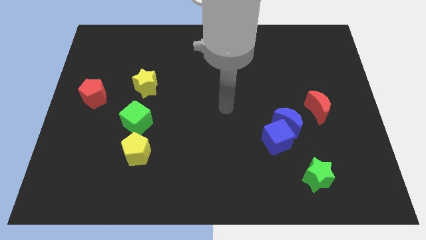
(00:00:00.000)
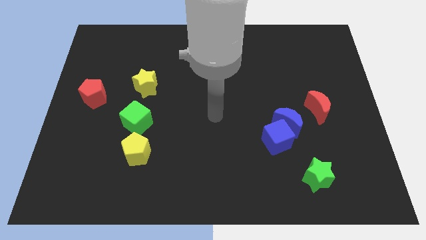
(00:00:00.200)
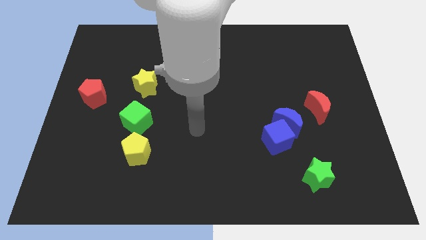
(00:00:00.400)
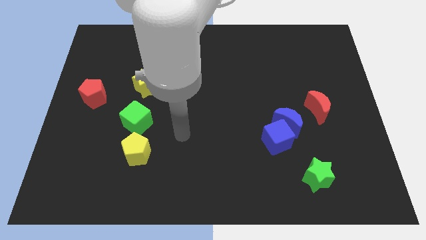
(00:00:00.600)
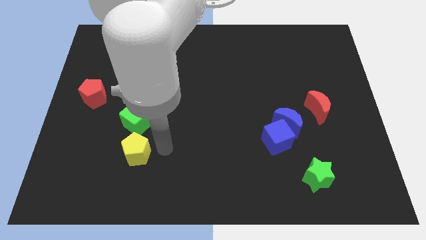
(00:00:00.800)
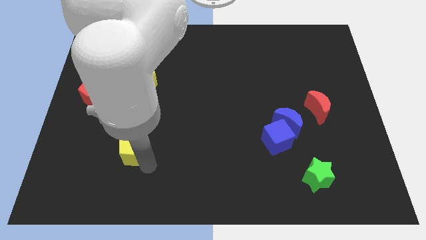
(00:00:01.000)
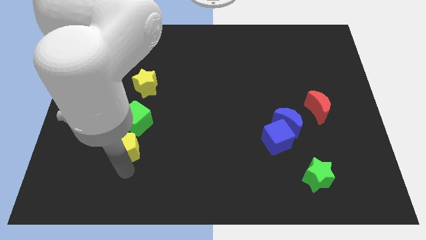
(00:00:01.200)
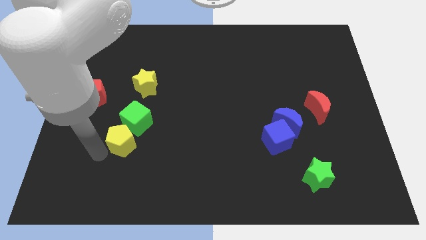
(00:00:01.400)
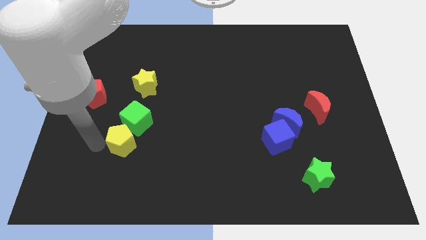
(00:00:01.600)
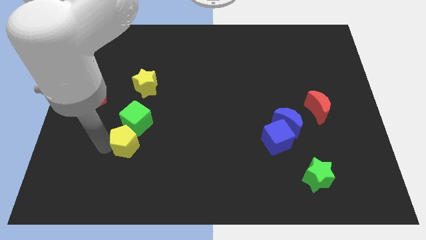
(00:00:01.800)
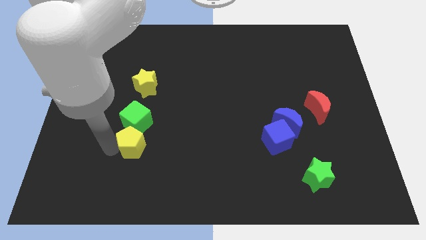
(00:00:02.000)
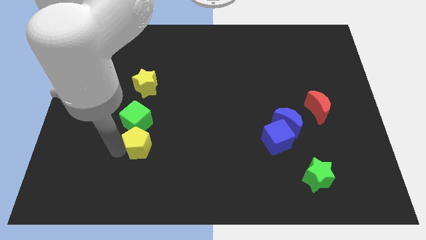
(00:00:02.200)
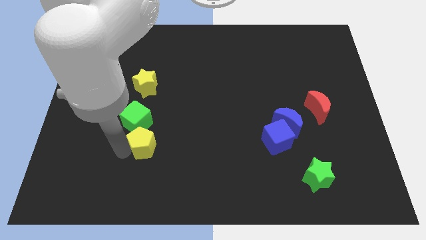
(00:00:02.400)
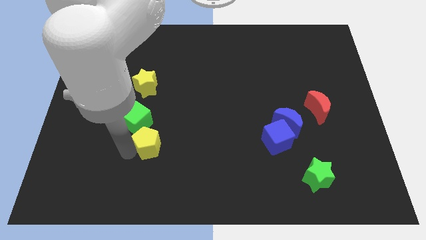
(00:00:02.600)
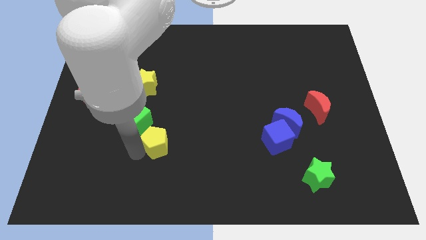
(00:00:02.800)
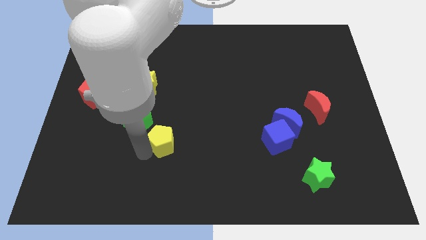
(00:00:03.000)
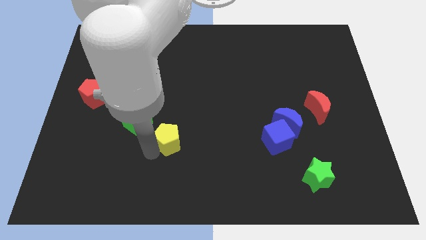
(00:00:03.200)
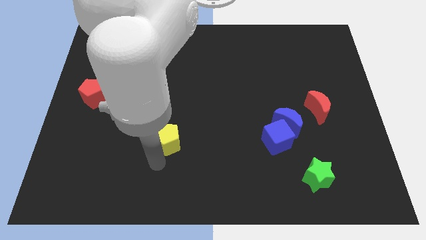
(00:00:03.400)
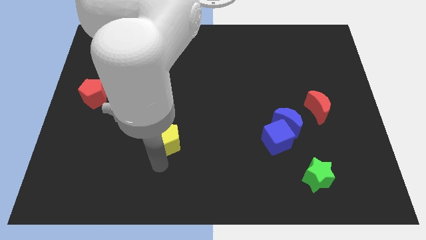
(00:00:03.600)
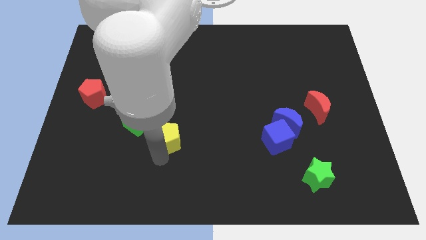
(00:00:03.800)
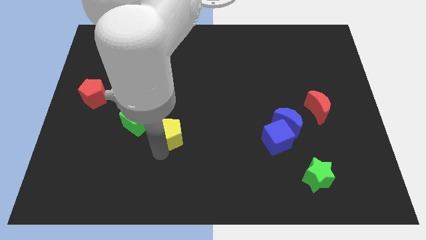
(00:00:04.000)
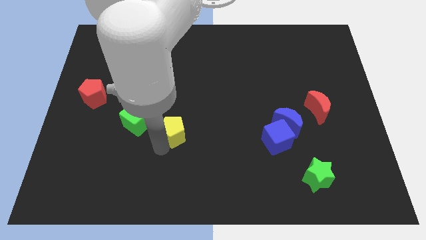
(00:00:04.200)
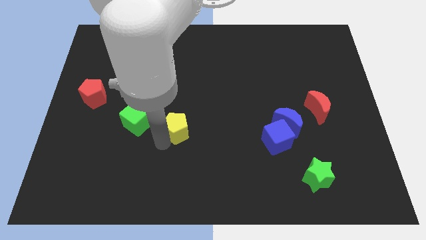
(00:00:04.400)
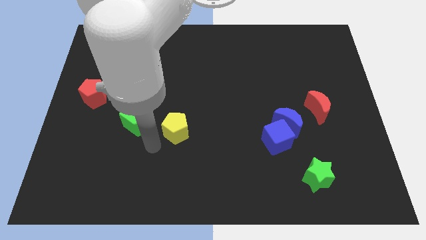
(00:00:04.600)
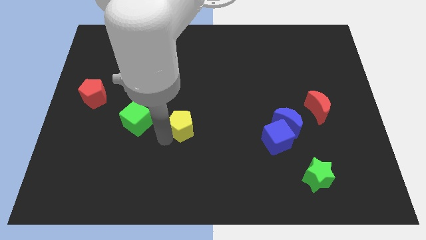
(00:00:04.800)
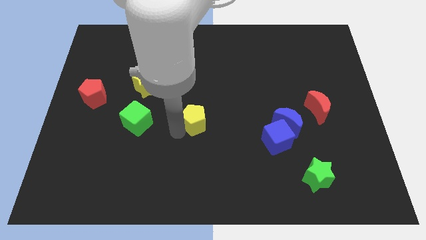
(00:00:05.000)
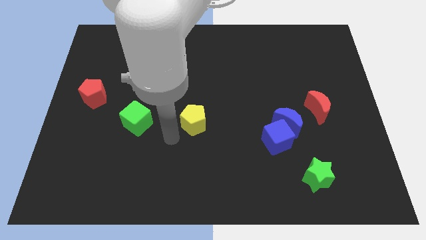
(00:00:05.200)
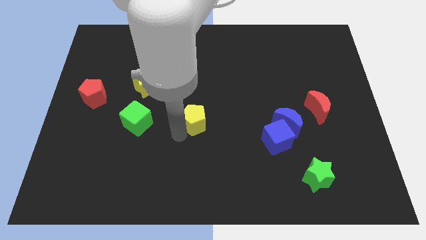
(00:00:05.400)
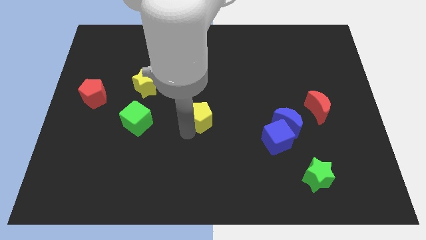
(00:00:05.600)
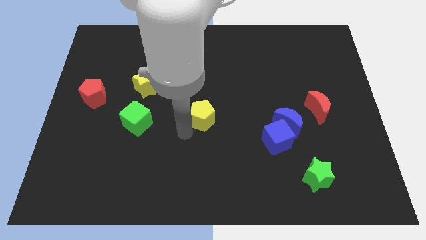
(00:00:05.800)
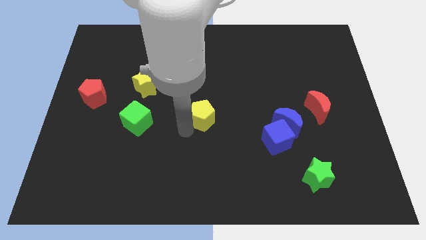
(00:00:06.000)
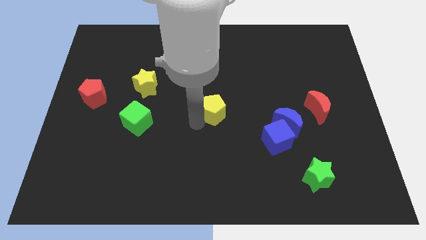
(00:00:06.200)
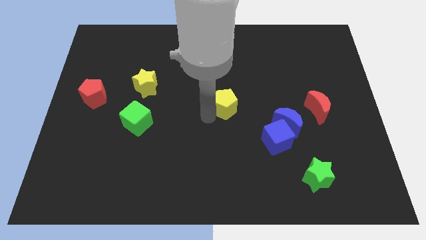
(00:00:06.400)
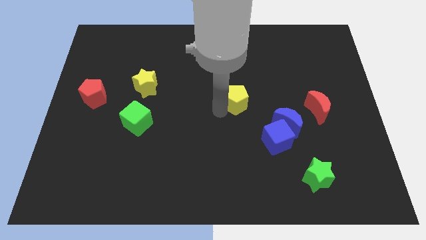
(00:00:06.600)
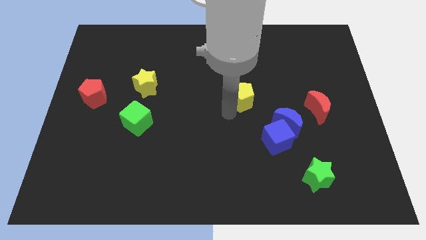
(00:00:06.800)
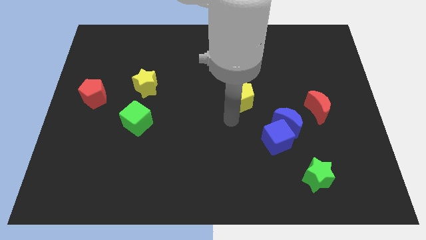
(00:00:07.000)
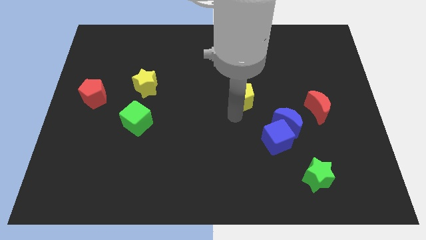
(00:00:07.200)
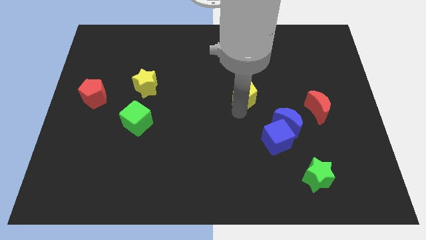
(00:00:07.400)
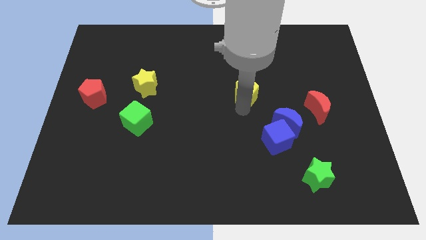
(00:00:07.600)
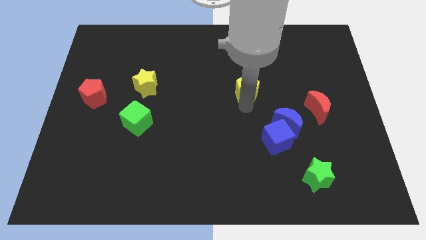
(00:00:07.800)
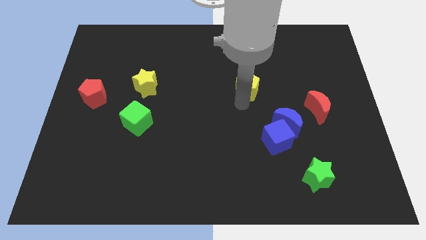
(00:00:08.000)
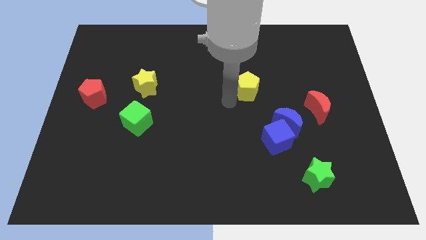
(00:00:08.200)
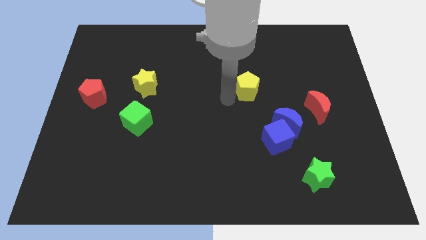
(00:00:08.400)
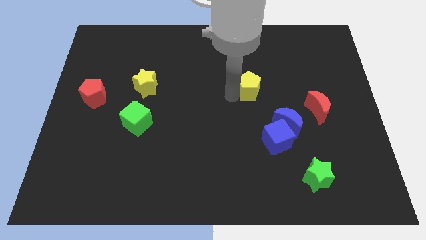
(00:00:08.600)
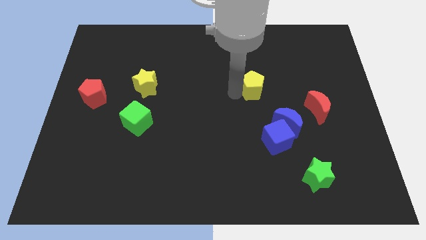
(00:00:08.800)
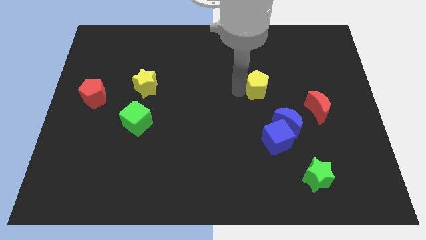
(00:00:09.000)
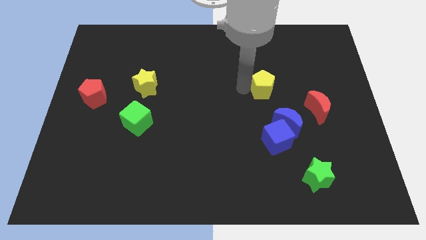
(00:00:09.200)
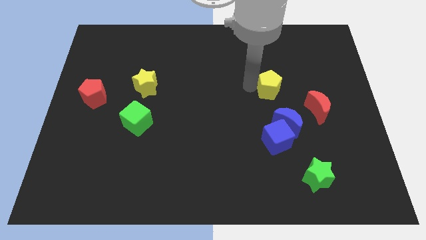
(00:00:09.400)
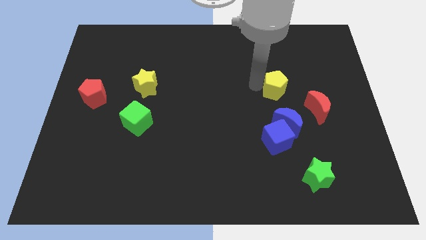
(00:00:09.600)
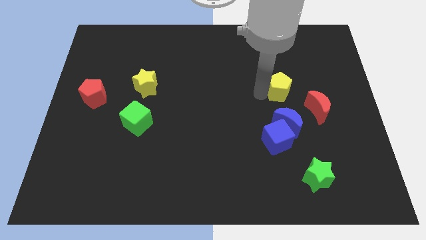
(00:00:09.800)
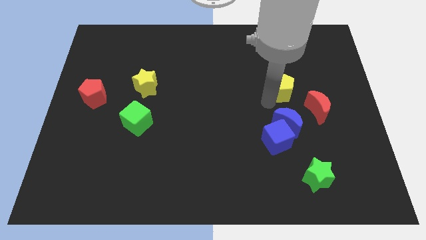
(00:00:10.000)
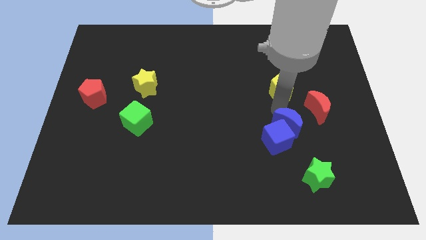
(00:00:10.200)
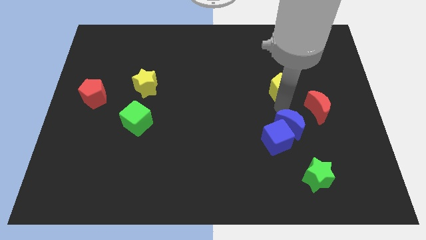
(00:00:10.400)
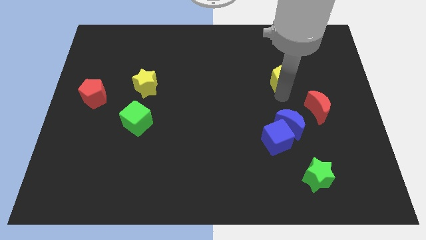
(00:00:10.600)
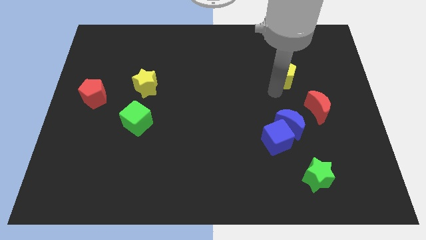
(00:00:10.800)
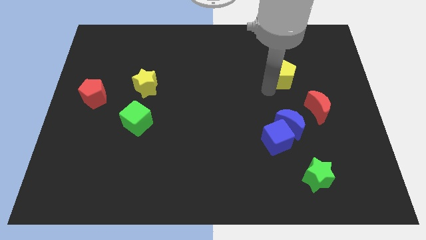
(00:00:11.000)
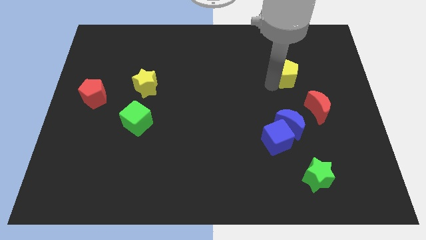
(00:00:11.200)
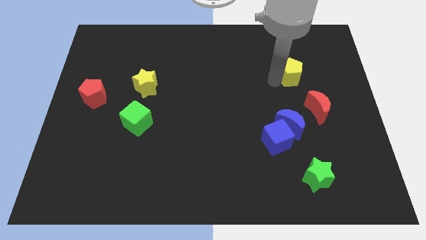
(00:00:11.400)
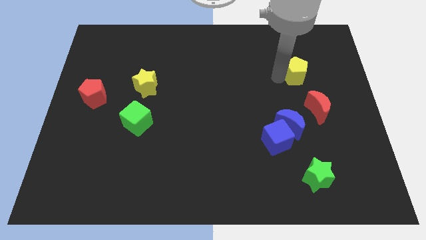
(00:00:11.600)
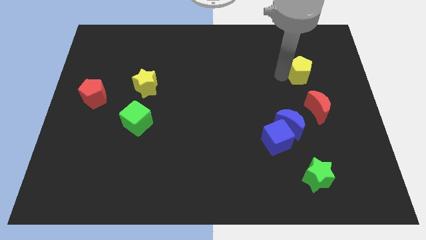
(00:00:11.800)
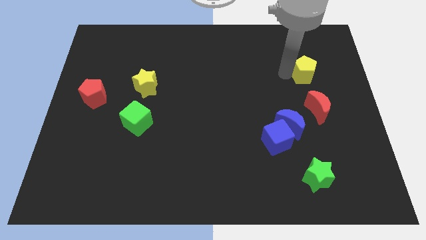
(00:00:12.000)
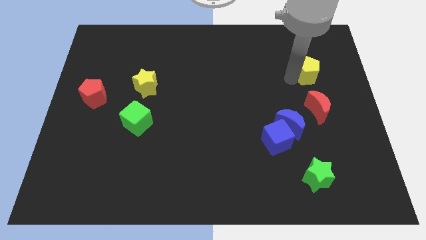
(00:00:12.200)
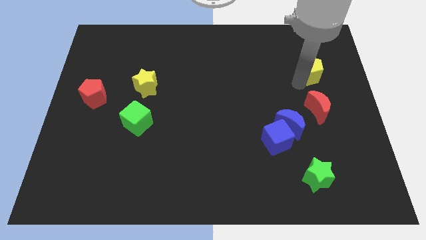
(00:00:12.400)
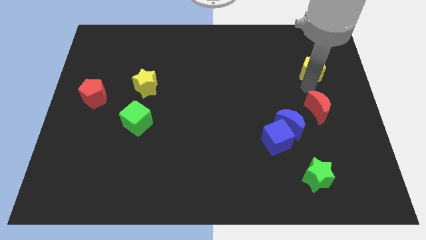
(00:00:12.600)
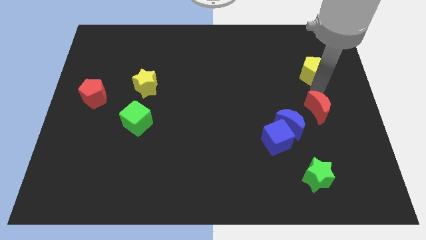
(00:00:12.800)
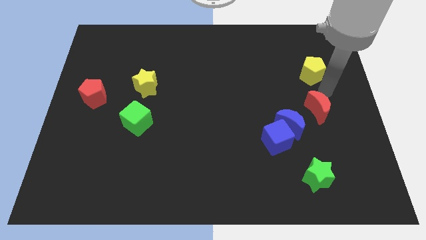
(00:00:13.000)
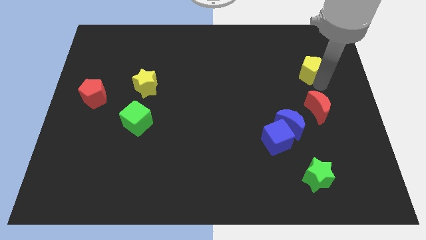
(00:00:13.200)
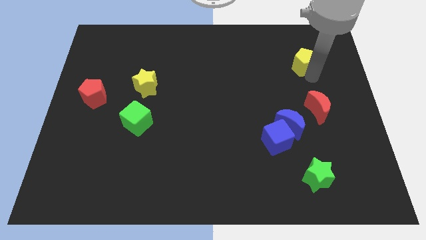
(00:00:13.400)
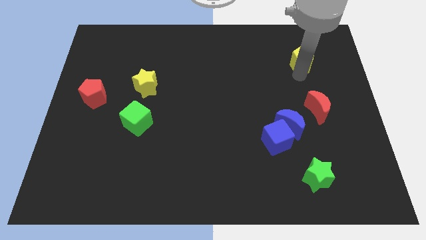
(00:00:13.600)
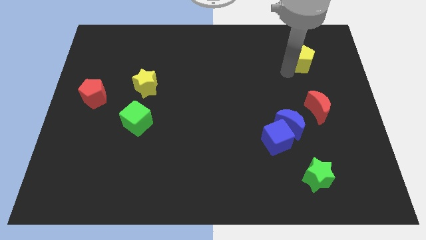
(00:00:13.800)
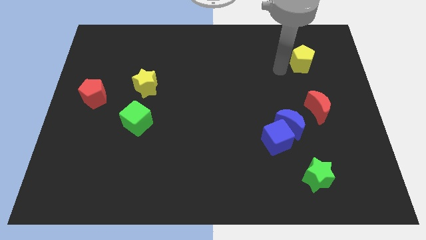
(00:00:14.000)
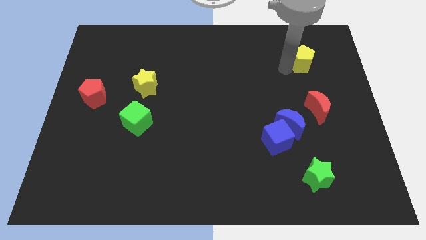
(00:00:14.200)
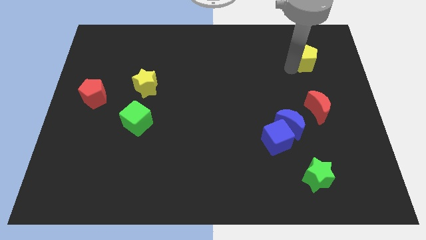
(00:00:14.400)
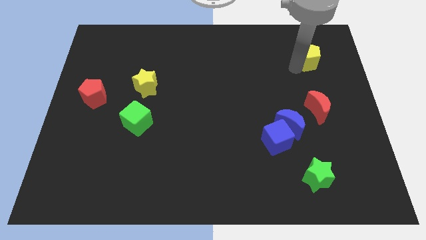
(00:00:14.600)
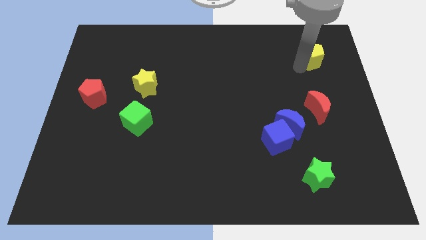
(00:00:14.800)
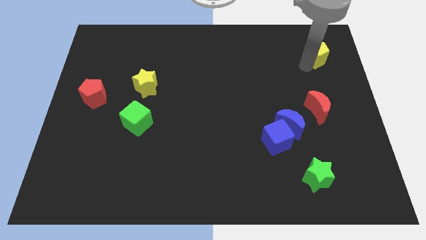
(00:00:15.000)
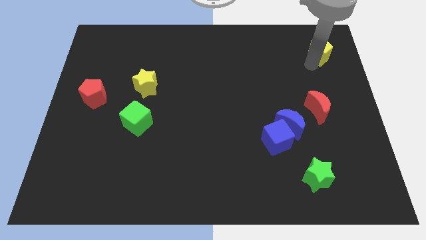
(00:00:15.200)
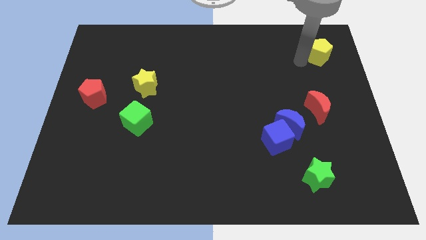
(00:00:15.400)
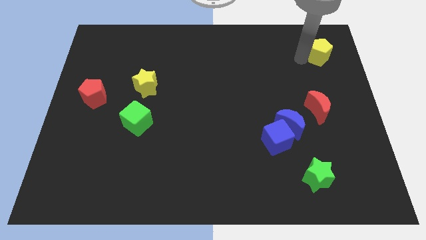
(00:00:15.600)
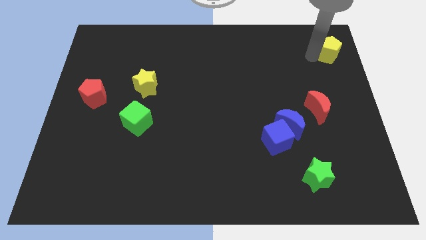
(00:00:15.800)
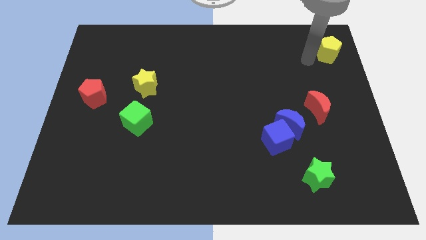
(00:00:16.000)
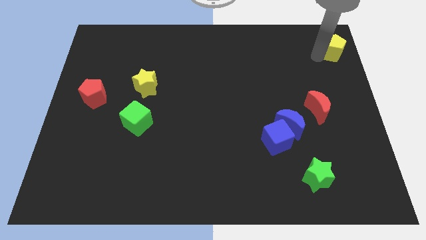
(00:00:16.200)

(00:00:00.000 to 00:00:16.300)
put the yellow pentagon to the top right of the board
